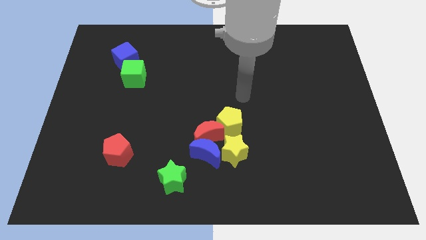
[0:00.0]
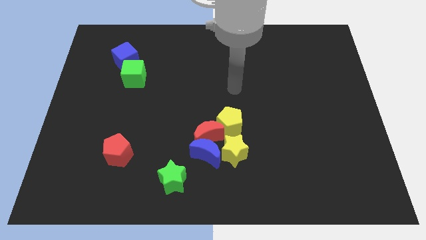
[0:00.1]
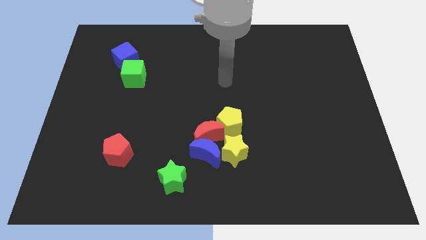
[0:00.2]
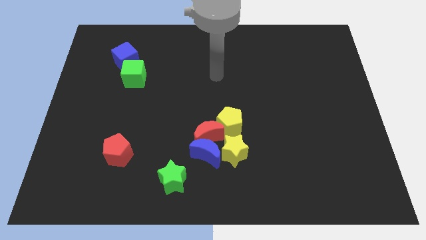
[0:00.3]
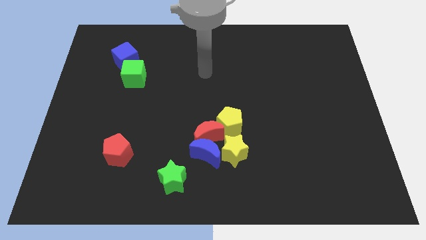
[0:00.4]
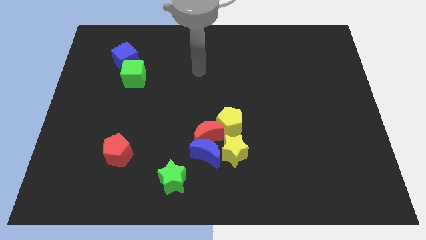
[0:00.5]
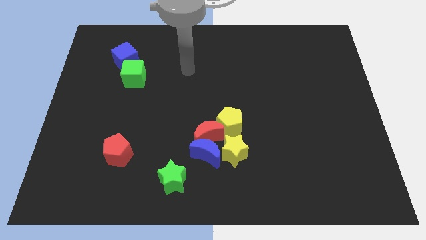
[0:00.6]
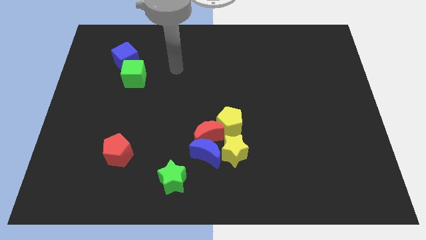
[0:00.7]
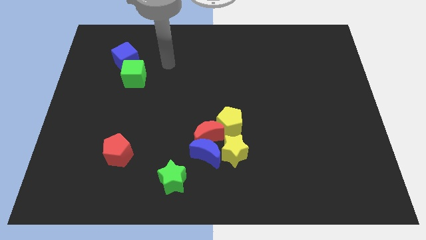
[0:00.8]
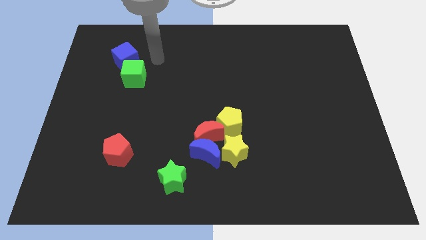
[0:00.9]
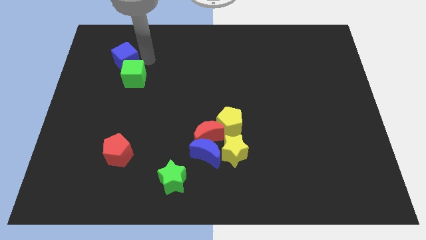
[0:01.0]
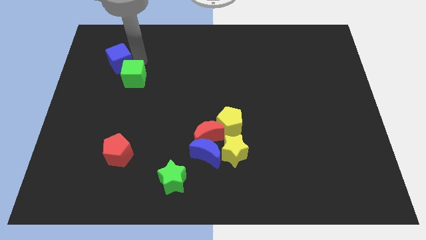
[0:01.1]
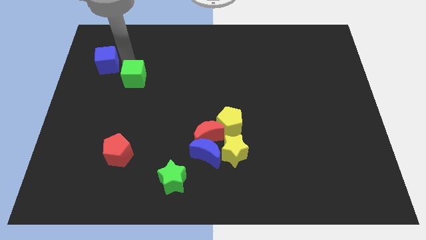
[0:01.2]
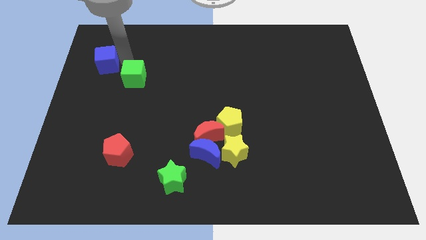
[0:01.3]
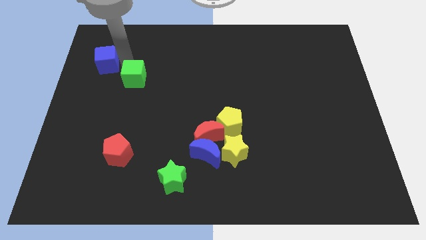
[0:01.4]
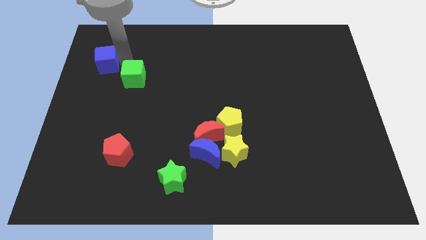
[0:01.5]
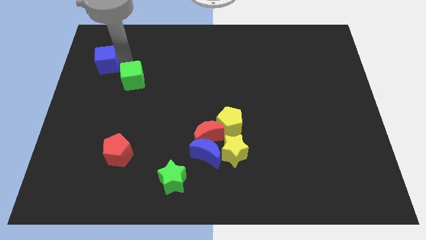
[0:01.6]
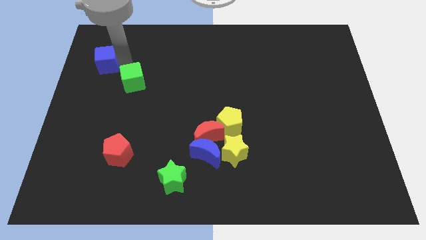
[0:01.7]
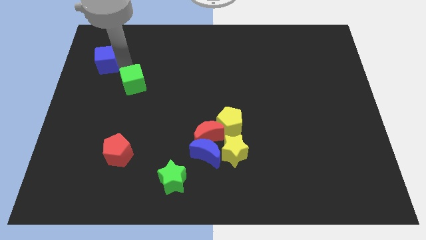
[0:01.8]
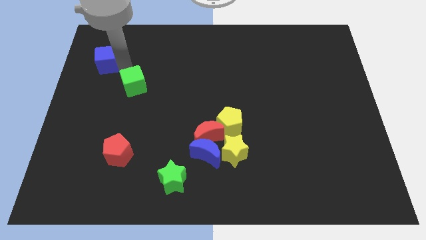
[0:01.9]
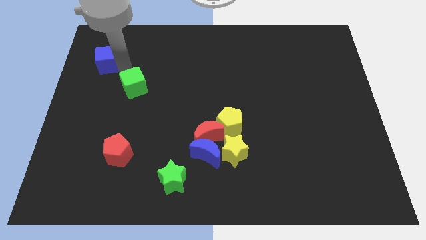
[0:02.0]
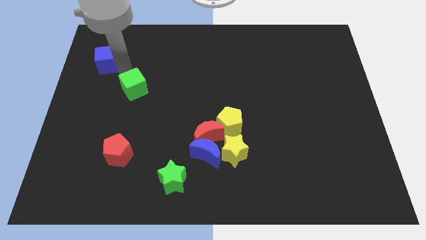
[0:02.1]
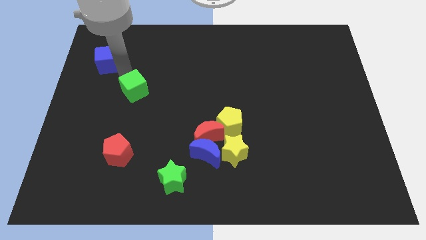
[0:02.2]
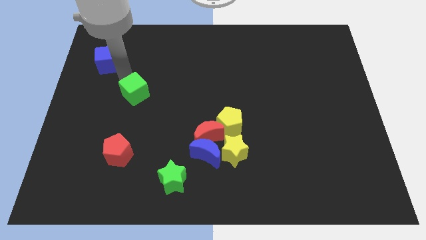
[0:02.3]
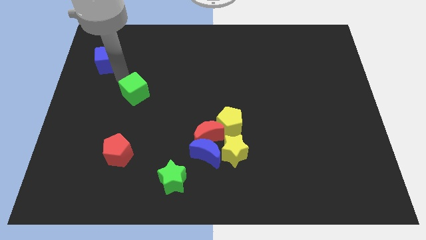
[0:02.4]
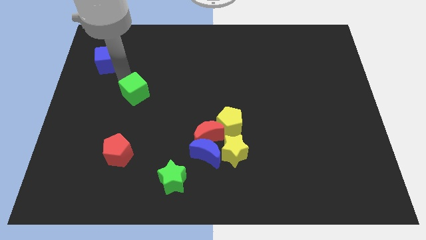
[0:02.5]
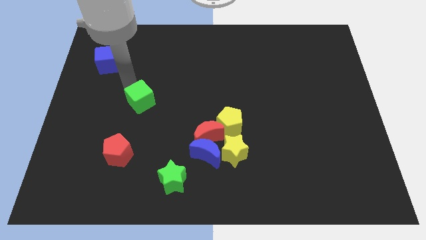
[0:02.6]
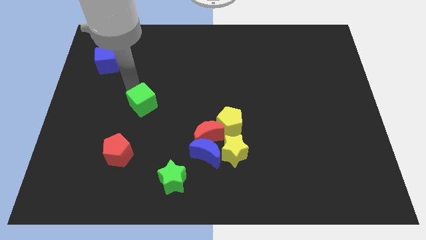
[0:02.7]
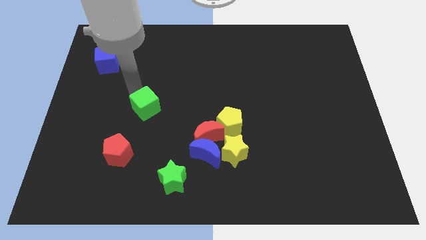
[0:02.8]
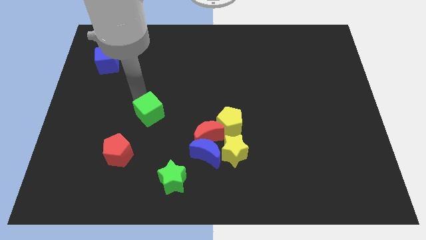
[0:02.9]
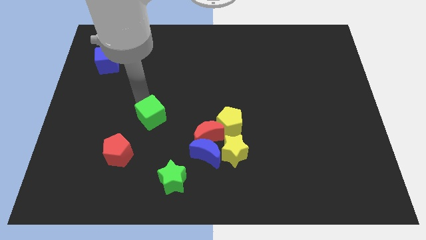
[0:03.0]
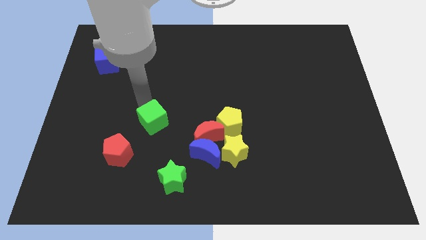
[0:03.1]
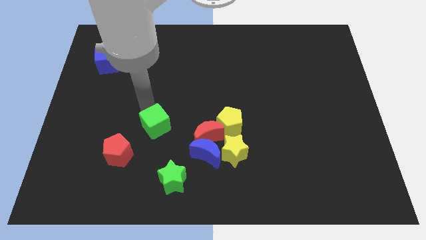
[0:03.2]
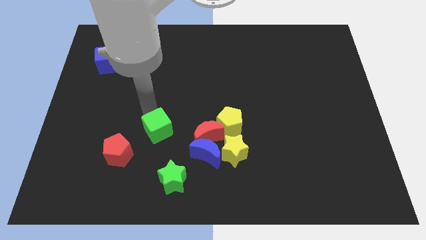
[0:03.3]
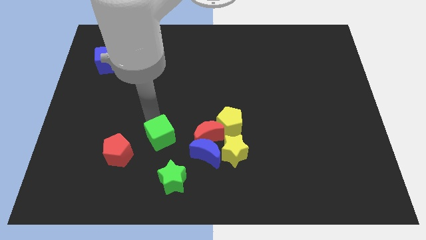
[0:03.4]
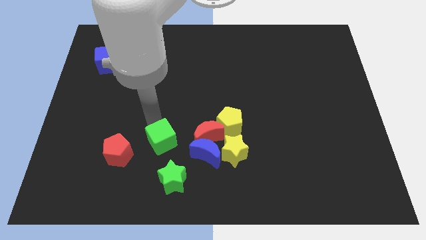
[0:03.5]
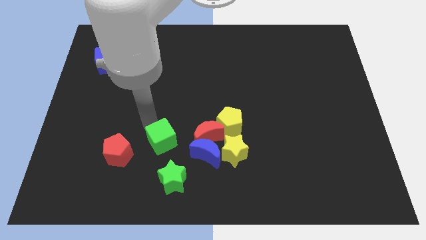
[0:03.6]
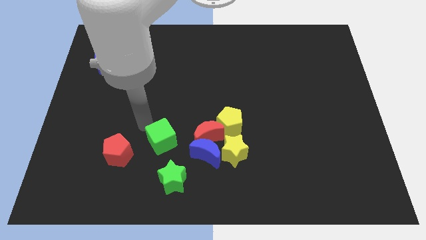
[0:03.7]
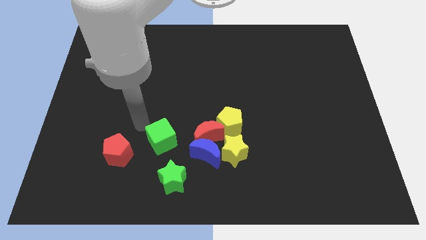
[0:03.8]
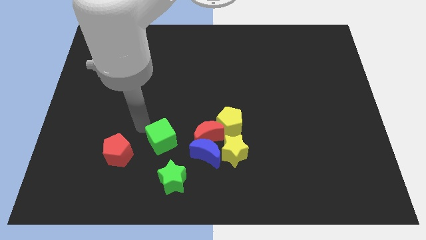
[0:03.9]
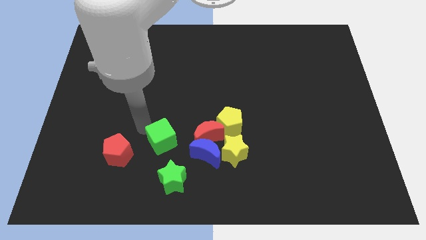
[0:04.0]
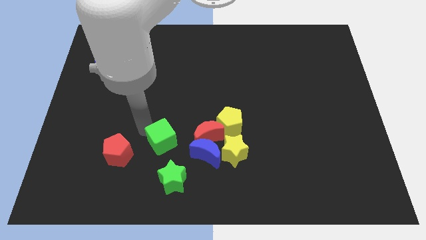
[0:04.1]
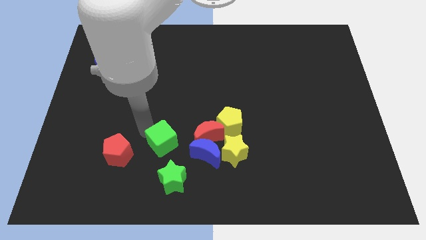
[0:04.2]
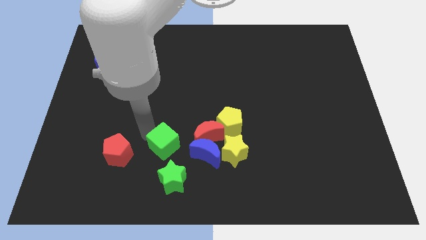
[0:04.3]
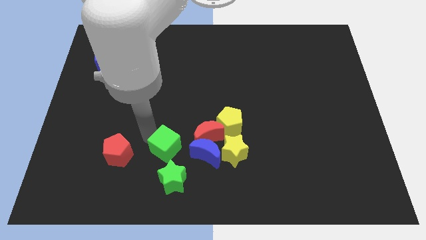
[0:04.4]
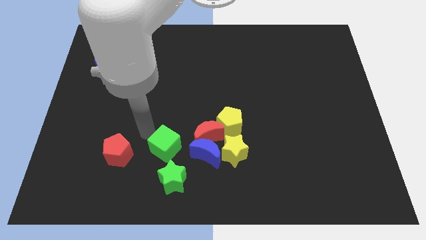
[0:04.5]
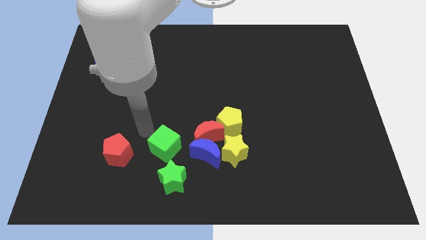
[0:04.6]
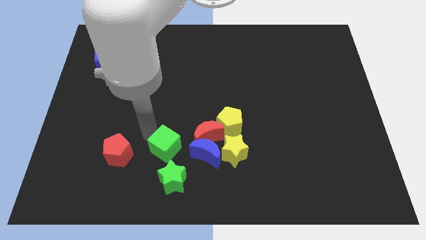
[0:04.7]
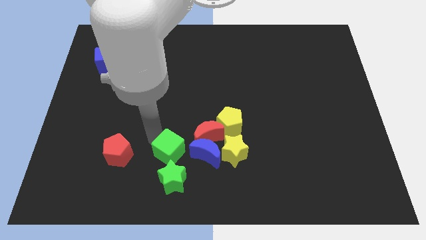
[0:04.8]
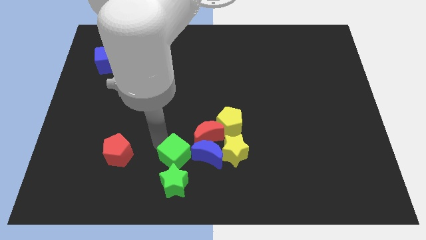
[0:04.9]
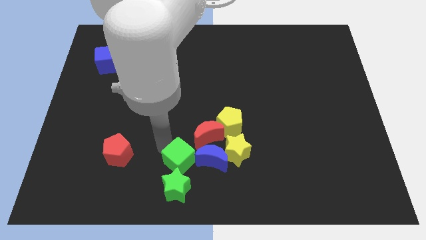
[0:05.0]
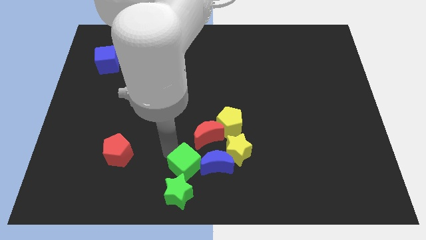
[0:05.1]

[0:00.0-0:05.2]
put the green cube to the bottom side
